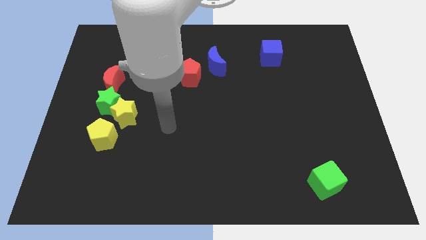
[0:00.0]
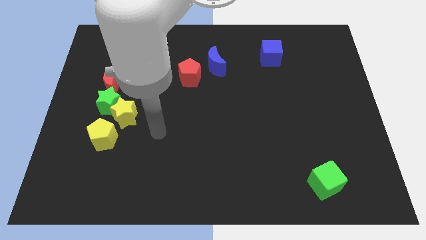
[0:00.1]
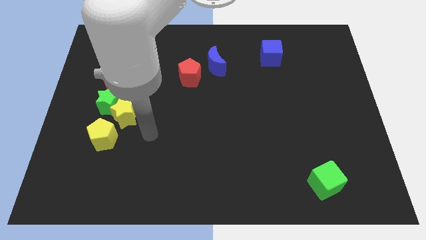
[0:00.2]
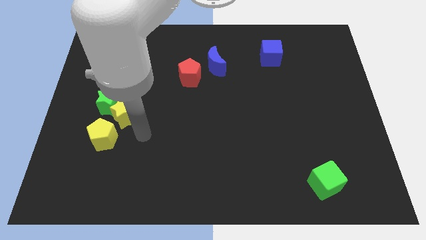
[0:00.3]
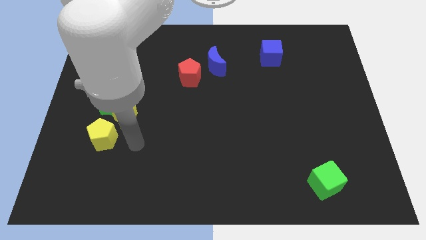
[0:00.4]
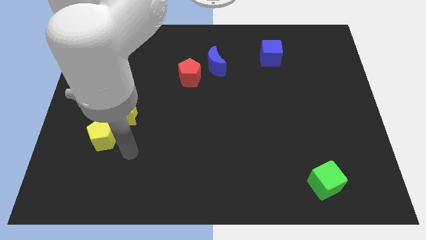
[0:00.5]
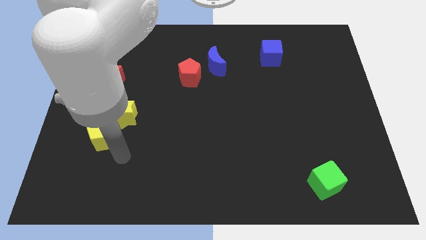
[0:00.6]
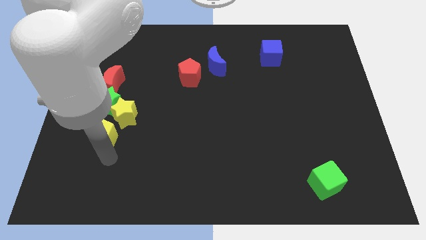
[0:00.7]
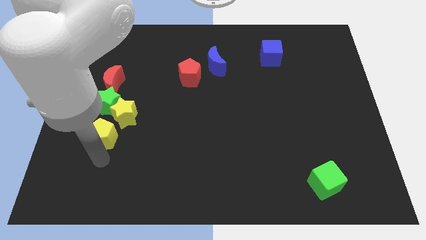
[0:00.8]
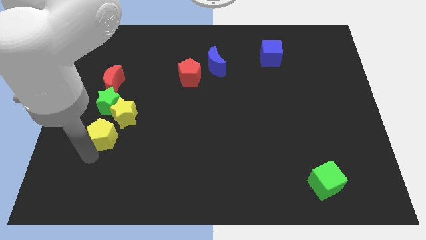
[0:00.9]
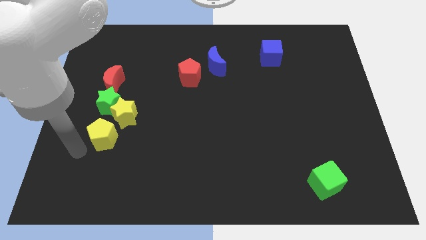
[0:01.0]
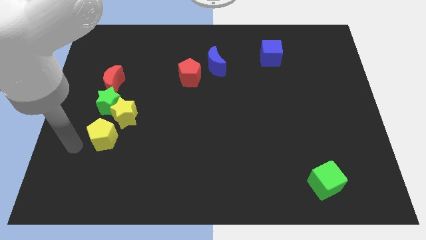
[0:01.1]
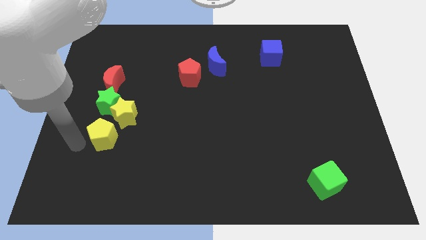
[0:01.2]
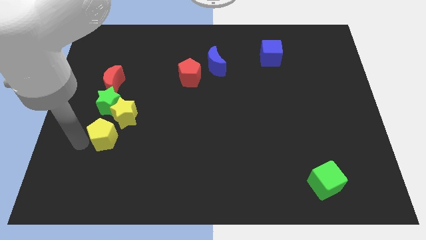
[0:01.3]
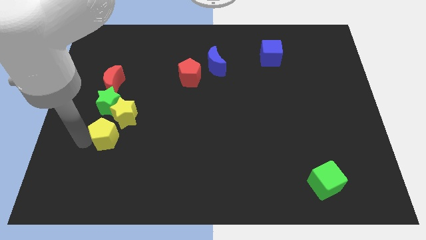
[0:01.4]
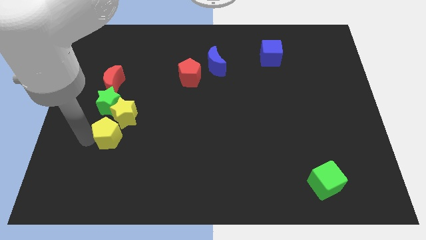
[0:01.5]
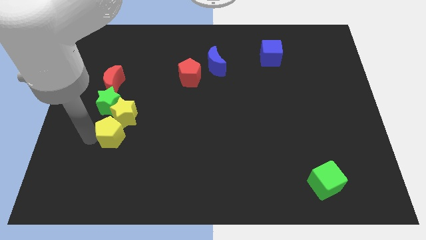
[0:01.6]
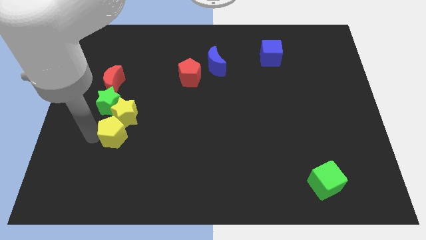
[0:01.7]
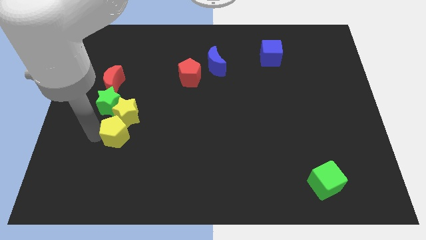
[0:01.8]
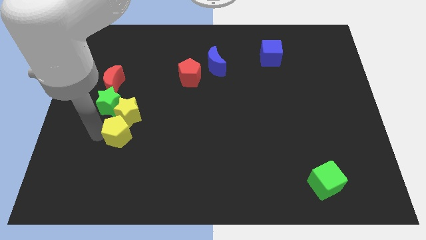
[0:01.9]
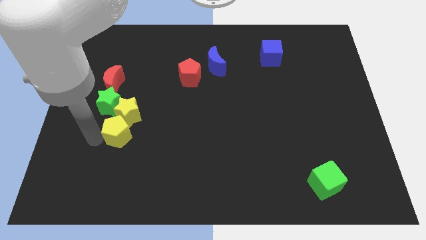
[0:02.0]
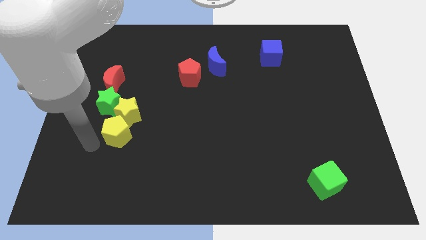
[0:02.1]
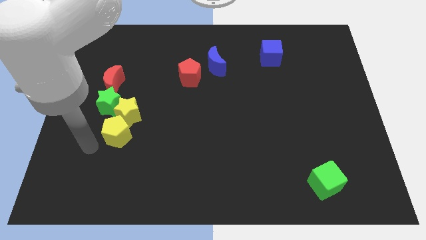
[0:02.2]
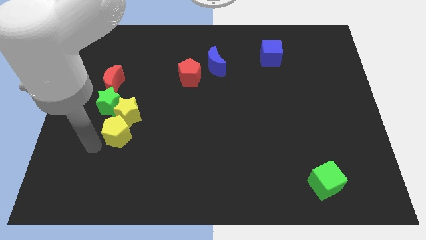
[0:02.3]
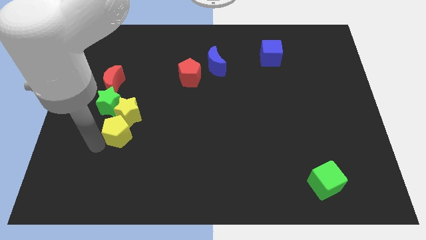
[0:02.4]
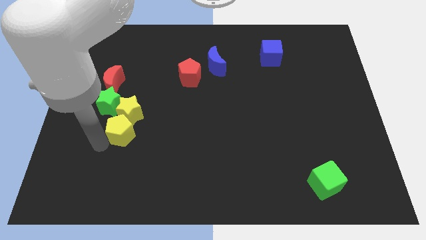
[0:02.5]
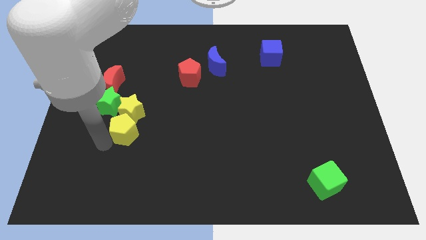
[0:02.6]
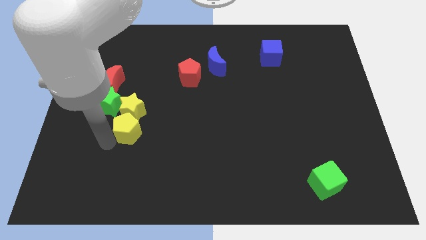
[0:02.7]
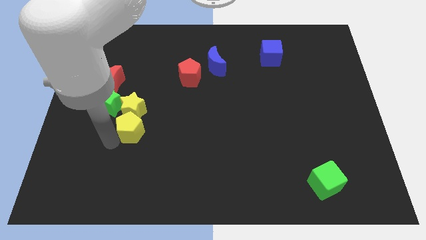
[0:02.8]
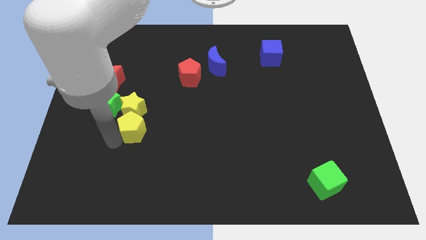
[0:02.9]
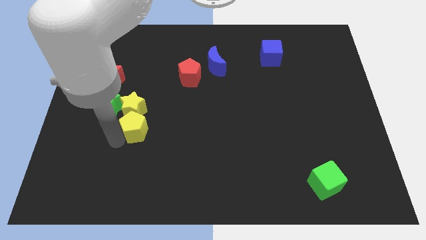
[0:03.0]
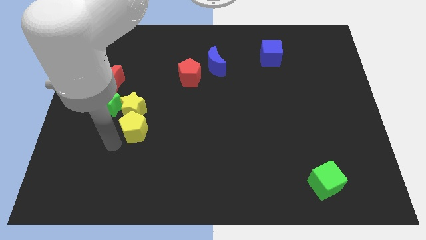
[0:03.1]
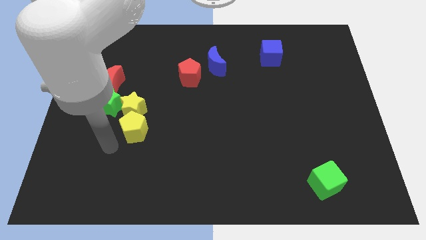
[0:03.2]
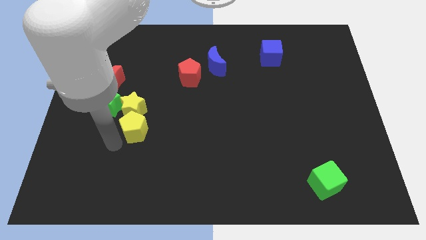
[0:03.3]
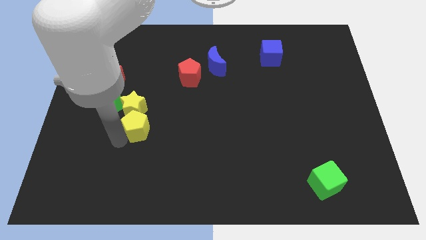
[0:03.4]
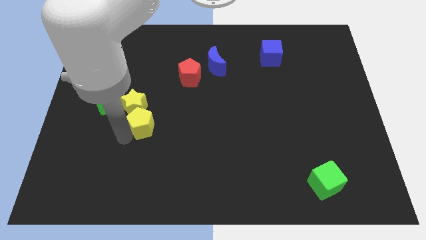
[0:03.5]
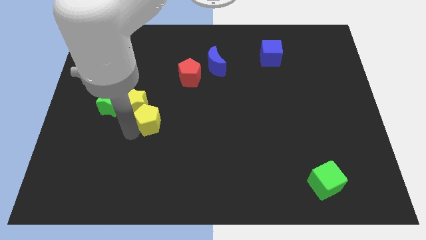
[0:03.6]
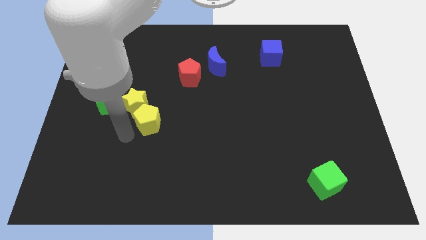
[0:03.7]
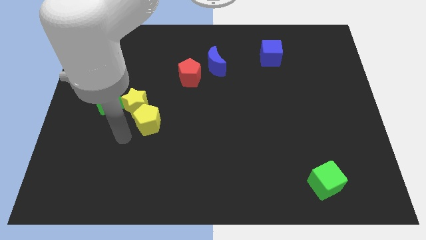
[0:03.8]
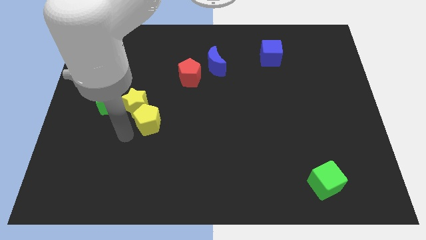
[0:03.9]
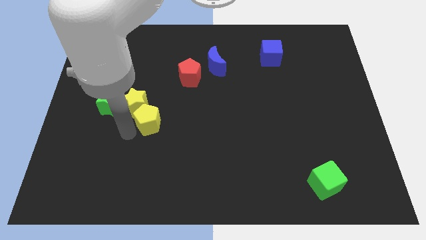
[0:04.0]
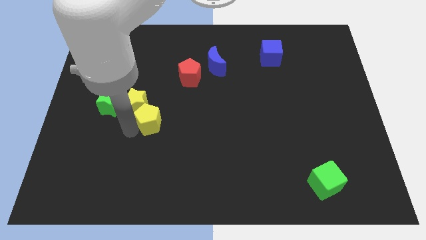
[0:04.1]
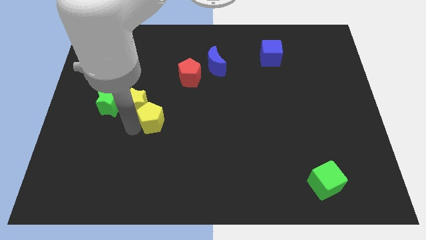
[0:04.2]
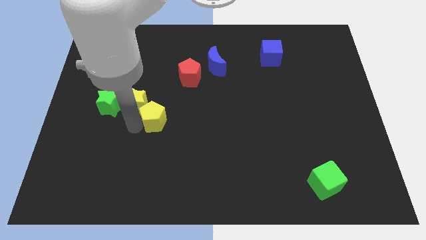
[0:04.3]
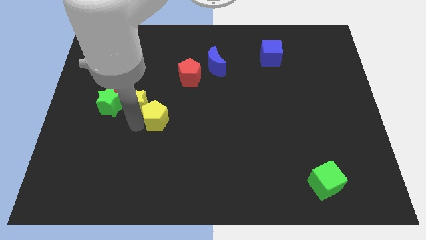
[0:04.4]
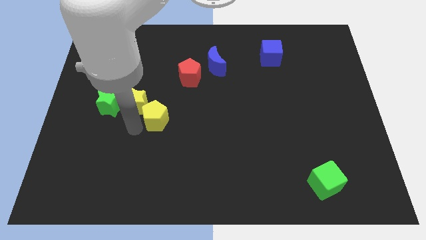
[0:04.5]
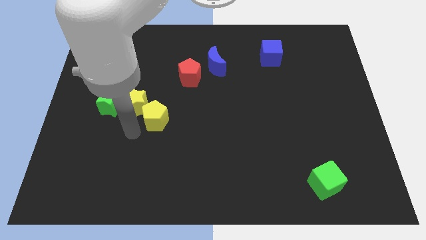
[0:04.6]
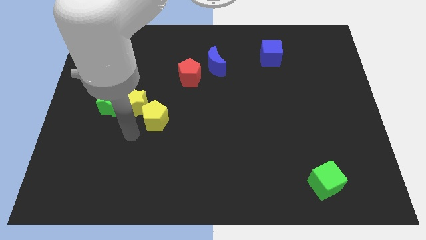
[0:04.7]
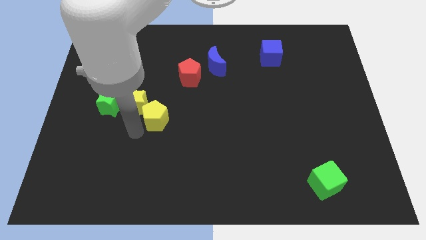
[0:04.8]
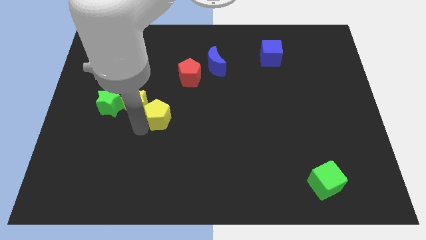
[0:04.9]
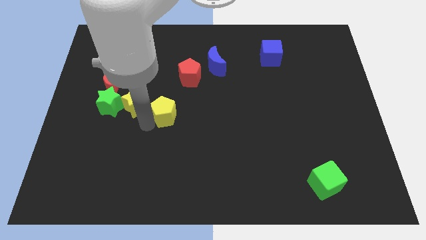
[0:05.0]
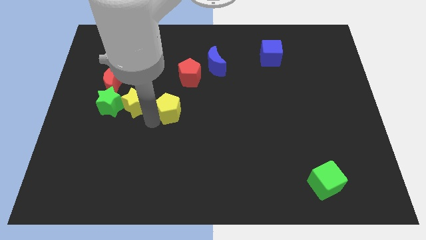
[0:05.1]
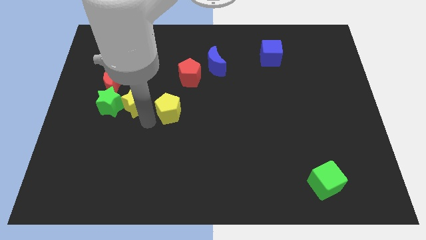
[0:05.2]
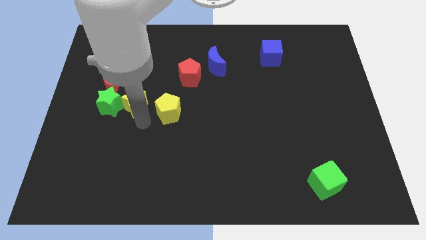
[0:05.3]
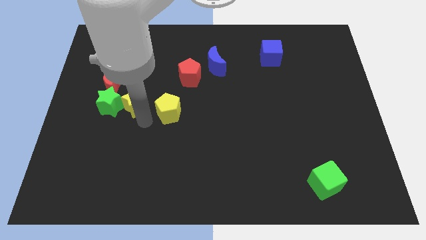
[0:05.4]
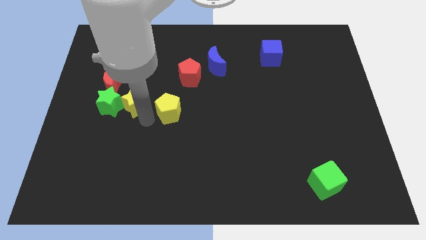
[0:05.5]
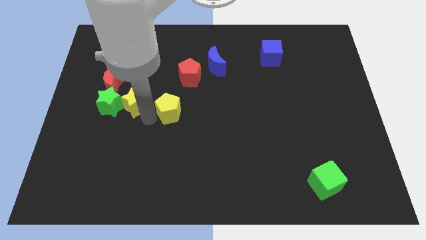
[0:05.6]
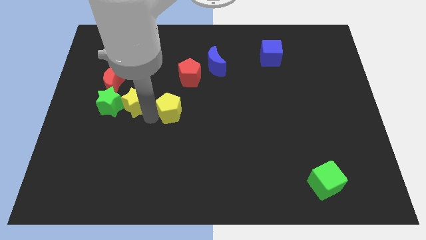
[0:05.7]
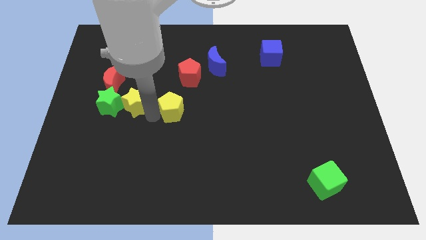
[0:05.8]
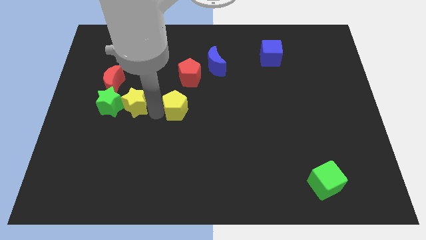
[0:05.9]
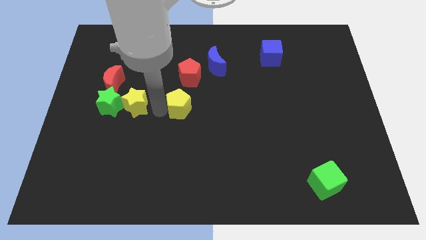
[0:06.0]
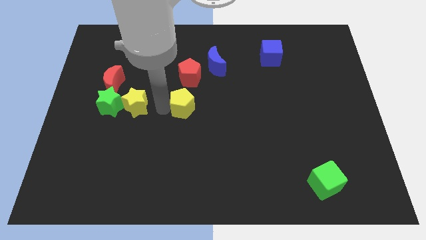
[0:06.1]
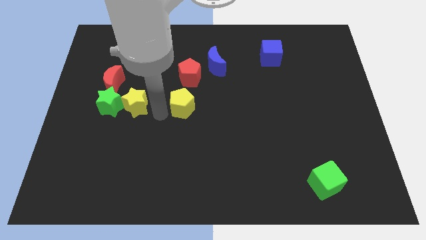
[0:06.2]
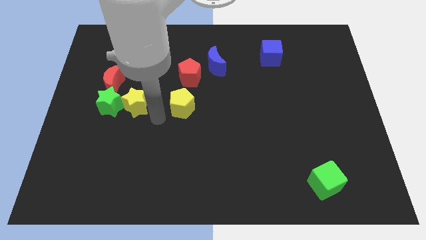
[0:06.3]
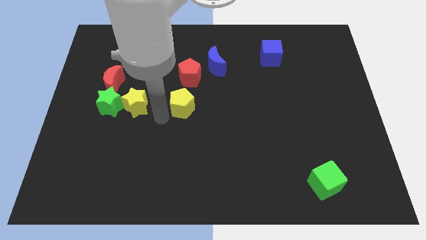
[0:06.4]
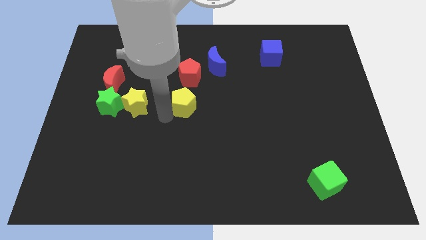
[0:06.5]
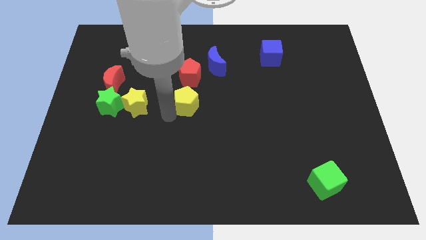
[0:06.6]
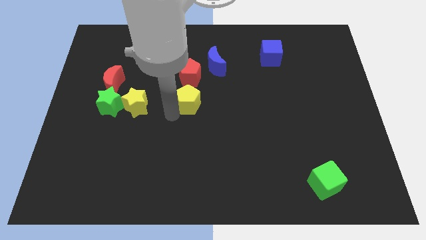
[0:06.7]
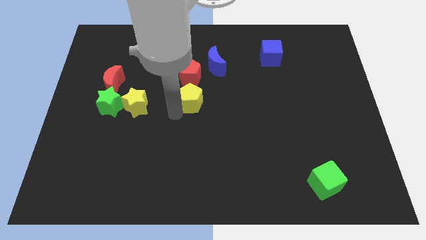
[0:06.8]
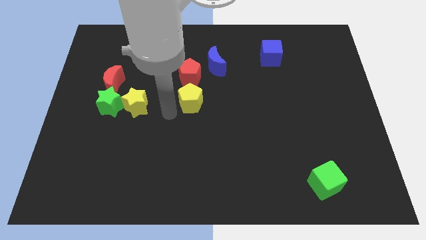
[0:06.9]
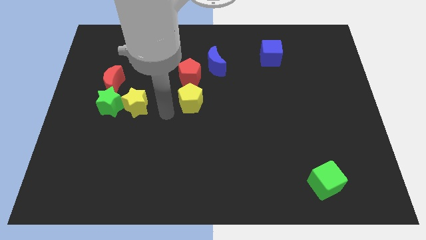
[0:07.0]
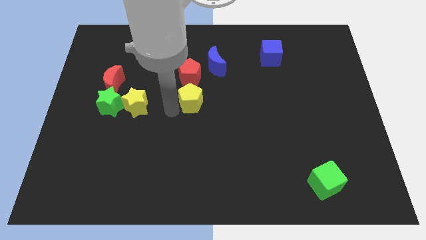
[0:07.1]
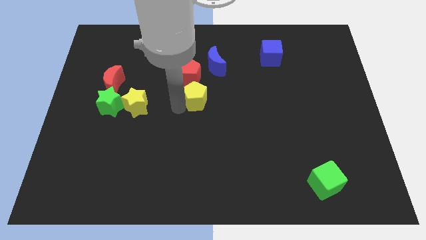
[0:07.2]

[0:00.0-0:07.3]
push the yellow pentagon to the bottom right side of the red pentagon

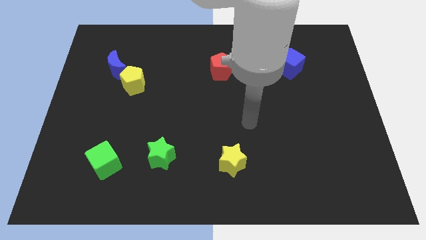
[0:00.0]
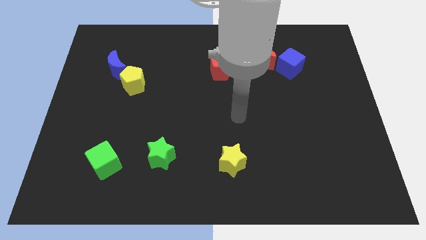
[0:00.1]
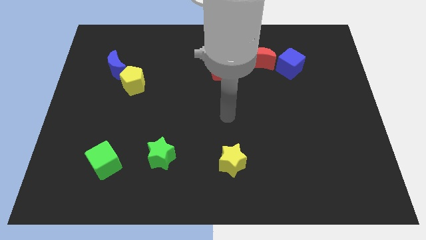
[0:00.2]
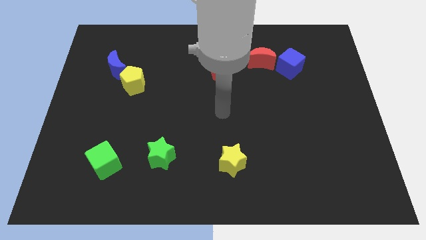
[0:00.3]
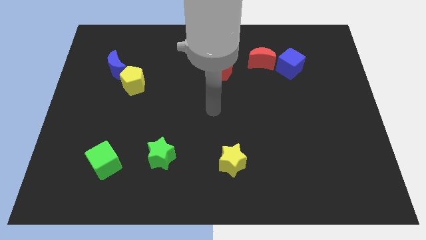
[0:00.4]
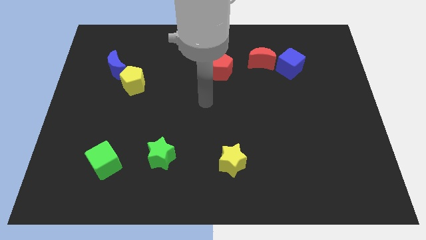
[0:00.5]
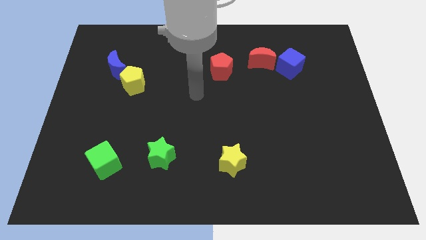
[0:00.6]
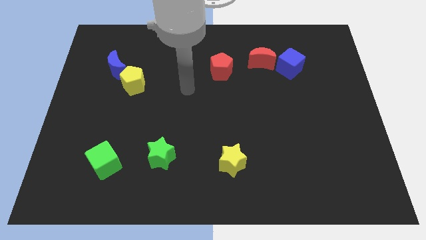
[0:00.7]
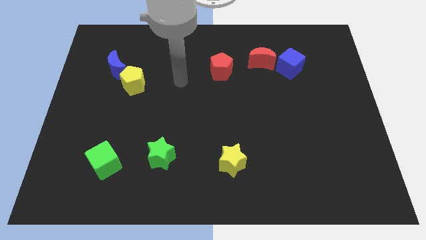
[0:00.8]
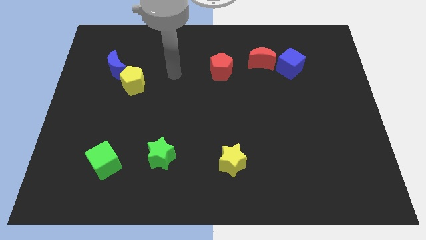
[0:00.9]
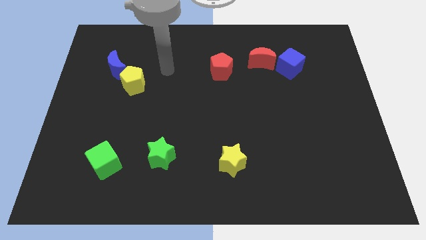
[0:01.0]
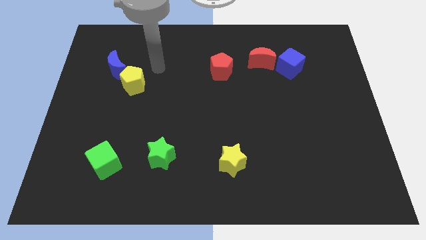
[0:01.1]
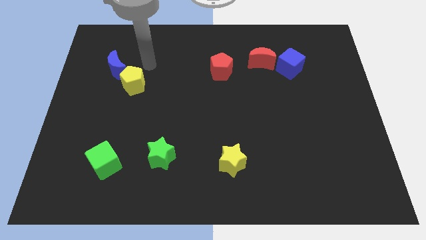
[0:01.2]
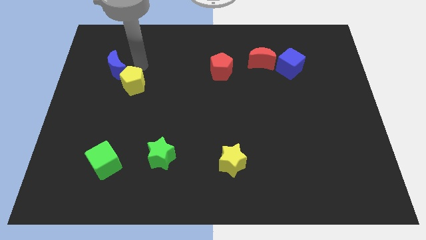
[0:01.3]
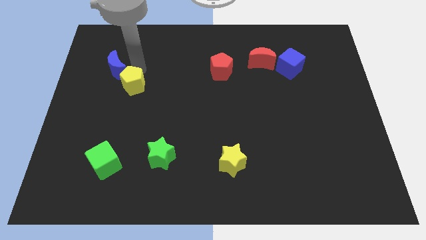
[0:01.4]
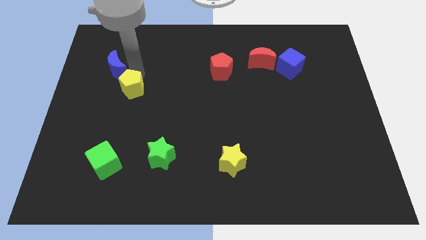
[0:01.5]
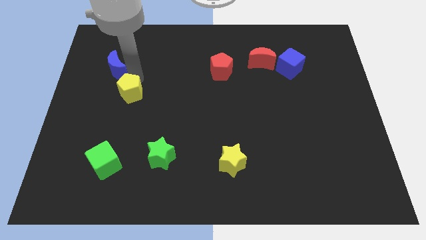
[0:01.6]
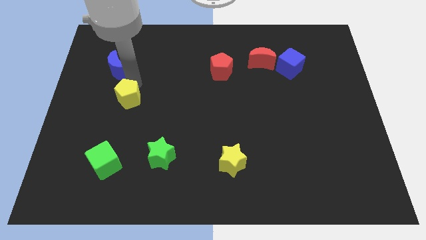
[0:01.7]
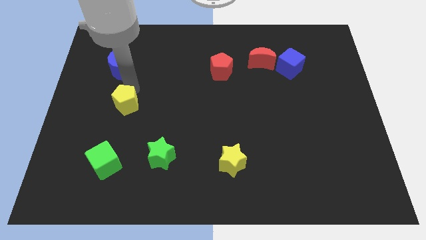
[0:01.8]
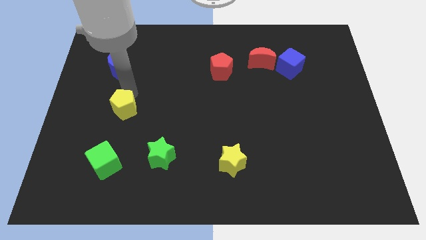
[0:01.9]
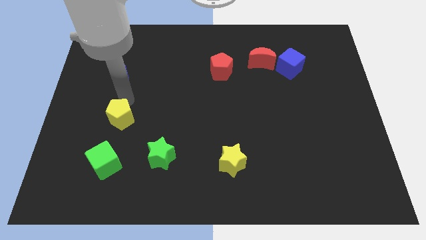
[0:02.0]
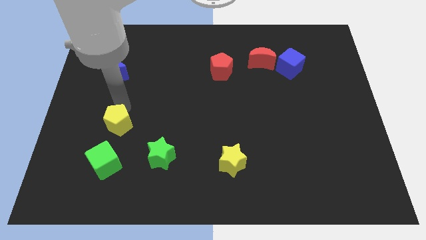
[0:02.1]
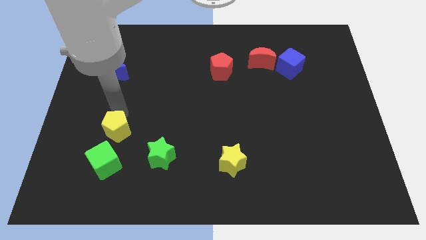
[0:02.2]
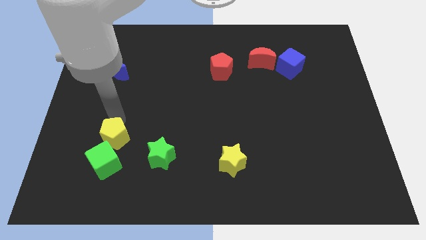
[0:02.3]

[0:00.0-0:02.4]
put the yellow pentagon to the top right of the green cube
